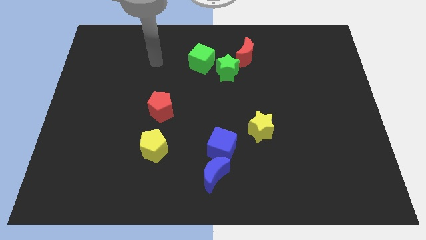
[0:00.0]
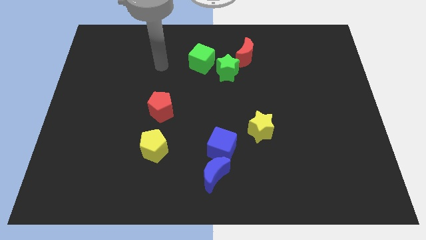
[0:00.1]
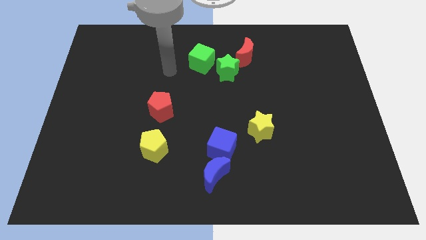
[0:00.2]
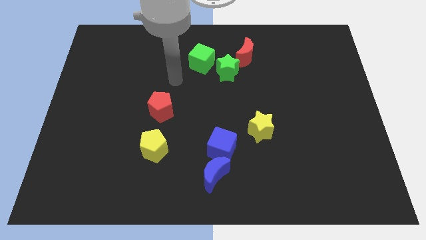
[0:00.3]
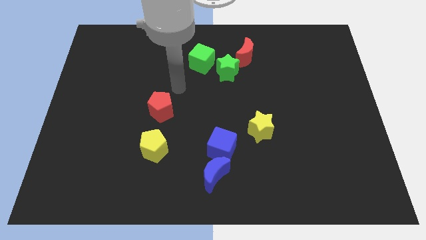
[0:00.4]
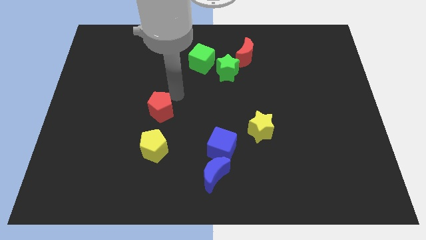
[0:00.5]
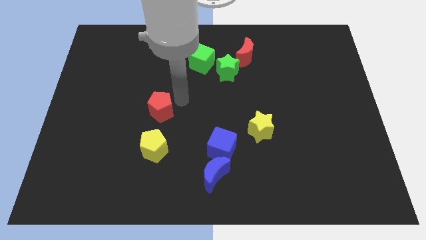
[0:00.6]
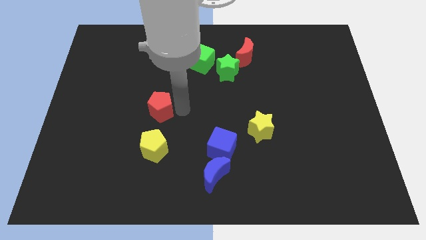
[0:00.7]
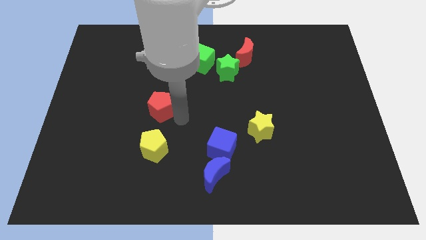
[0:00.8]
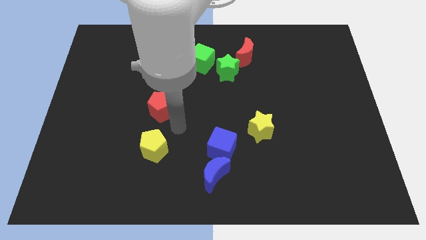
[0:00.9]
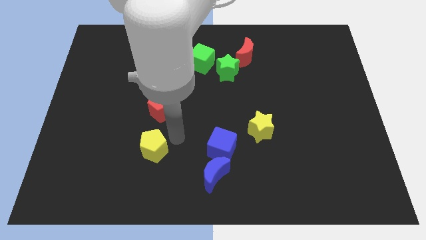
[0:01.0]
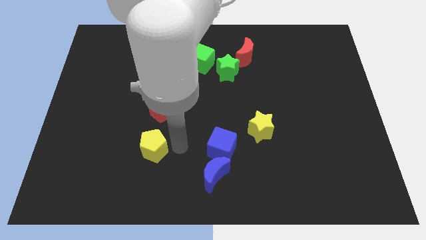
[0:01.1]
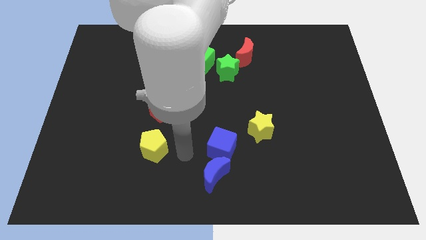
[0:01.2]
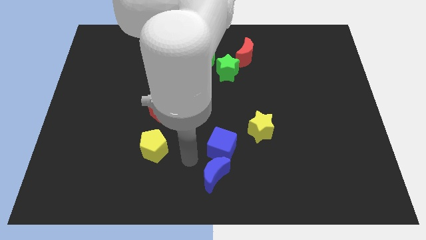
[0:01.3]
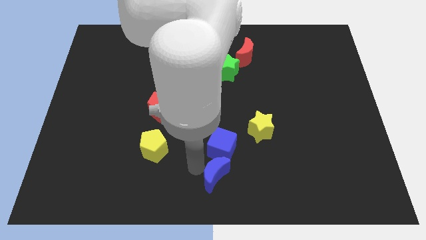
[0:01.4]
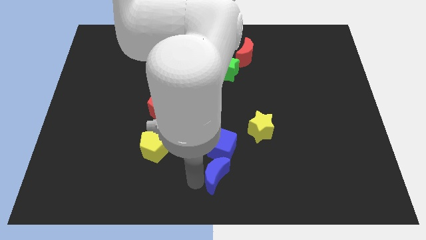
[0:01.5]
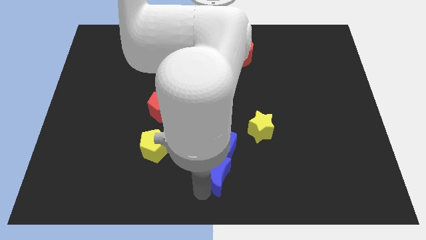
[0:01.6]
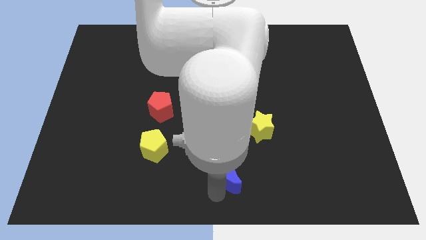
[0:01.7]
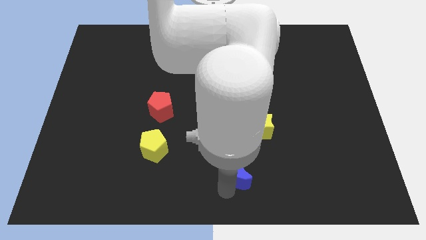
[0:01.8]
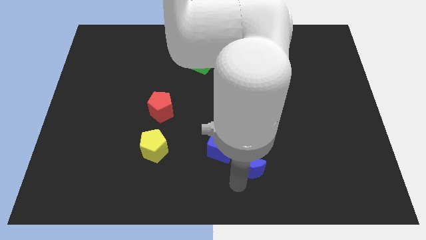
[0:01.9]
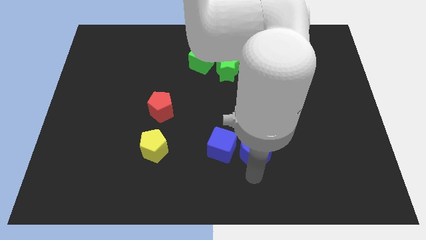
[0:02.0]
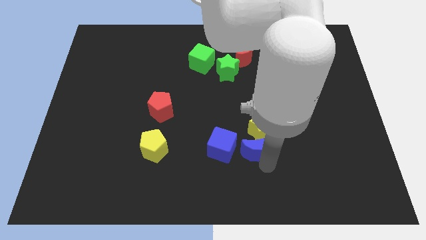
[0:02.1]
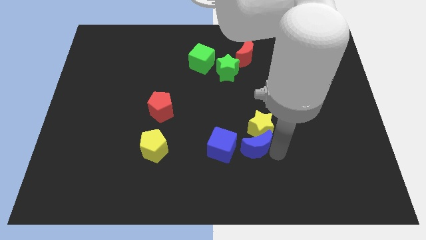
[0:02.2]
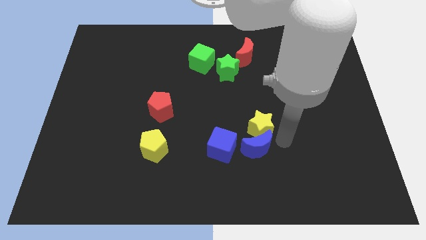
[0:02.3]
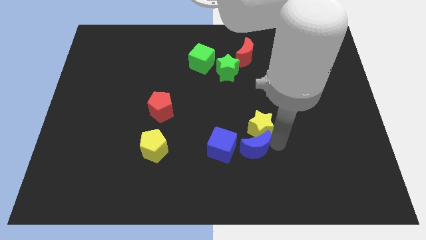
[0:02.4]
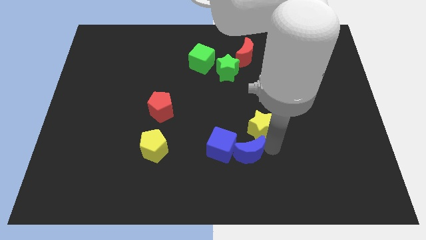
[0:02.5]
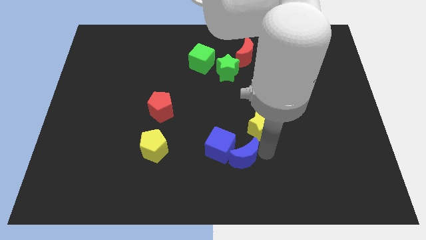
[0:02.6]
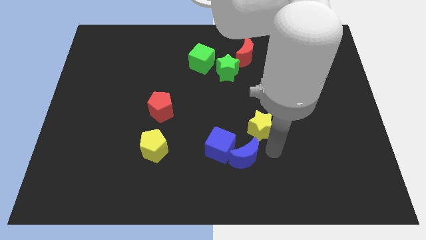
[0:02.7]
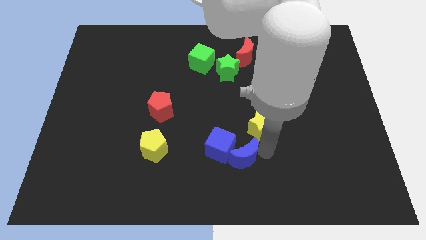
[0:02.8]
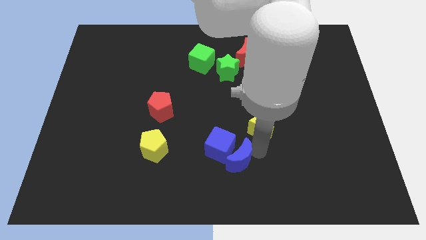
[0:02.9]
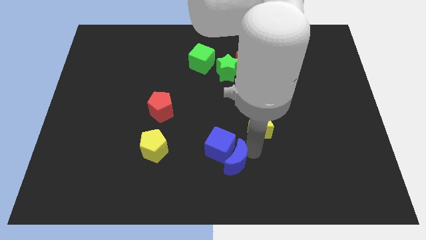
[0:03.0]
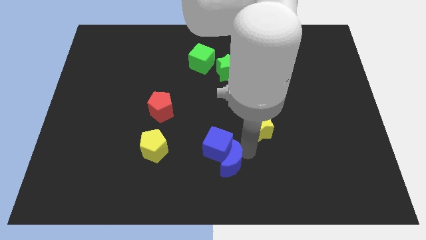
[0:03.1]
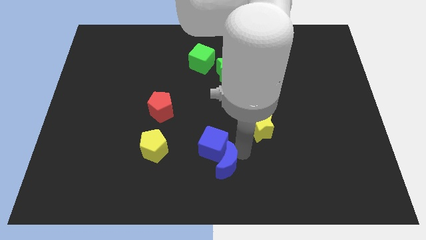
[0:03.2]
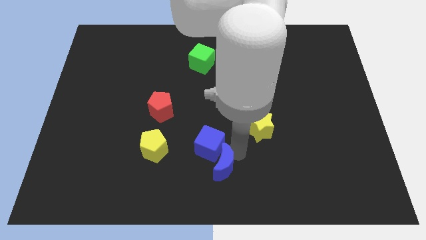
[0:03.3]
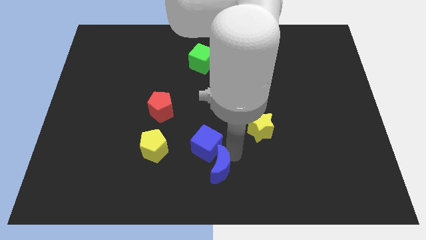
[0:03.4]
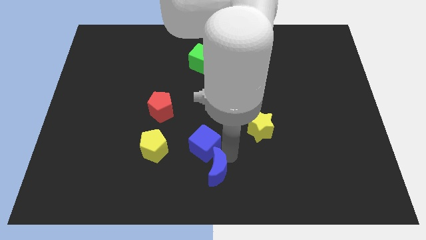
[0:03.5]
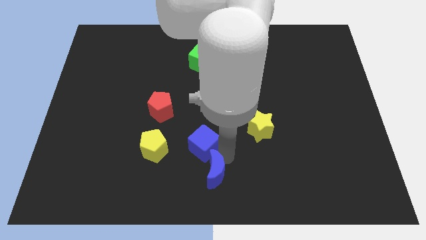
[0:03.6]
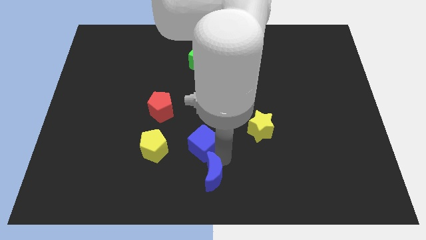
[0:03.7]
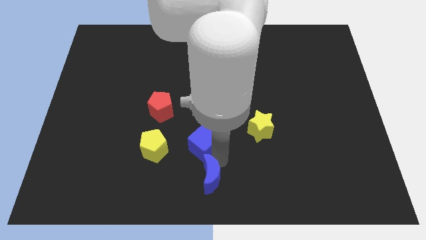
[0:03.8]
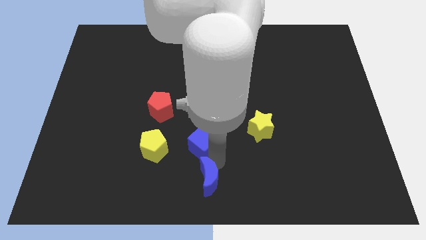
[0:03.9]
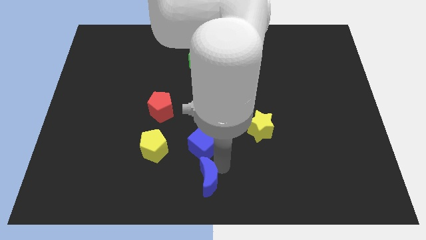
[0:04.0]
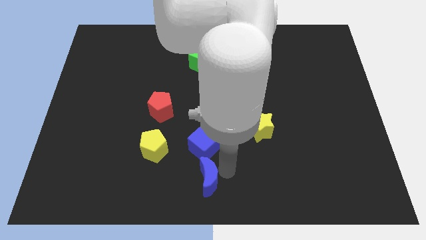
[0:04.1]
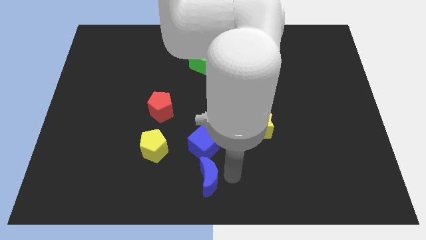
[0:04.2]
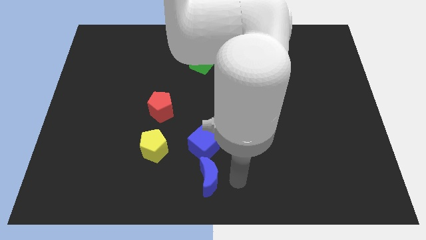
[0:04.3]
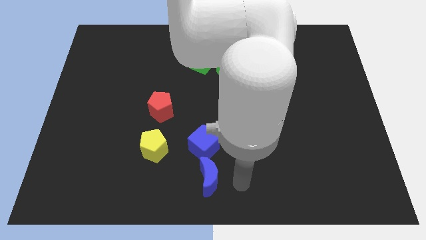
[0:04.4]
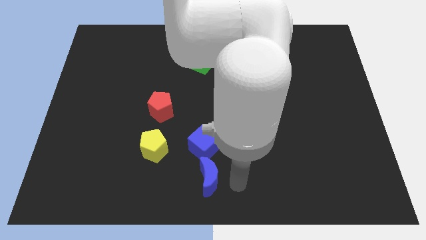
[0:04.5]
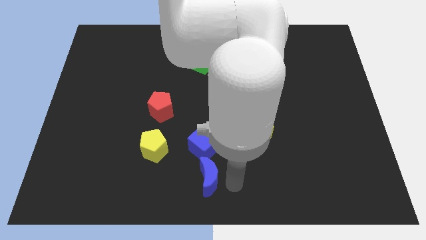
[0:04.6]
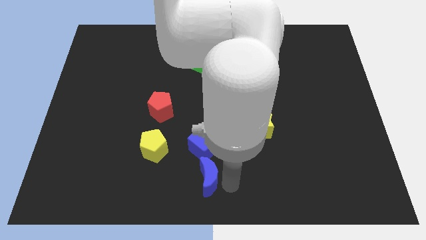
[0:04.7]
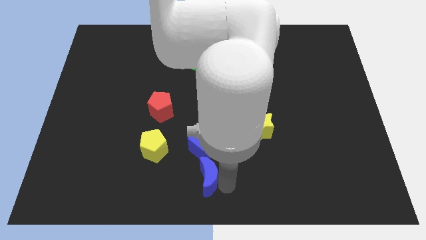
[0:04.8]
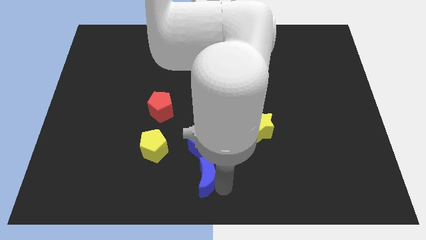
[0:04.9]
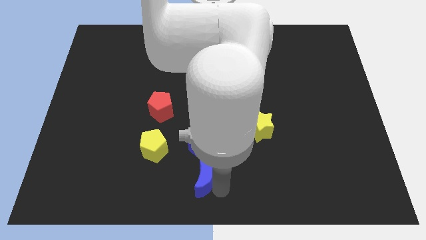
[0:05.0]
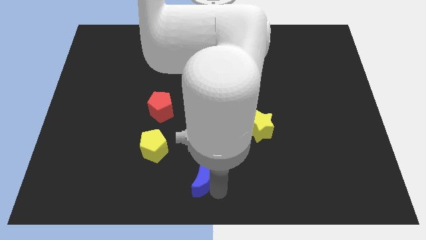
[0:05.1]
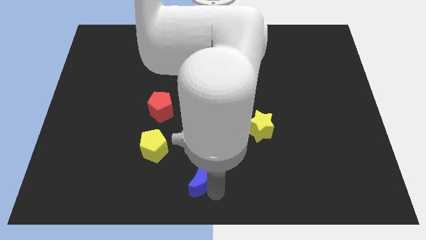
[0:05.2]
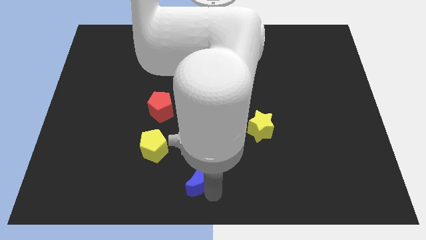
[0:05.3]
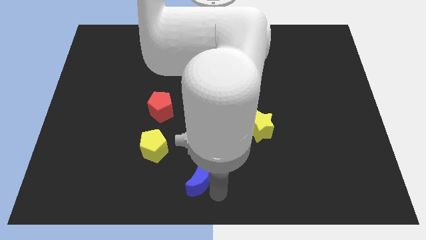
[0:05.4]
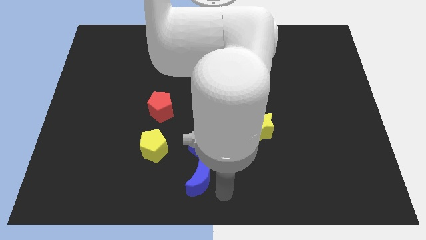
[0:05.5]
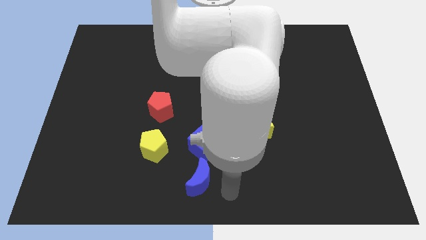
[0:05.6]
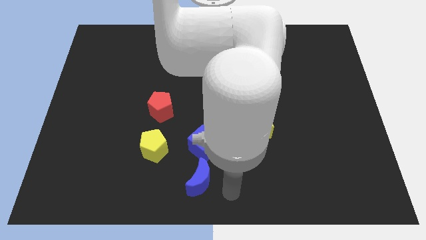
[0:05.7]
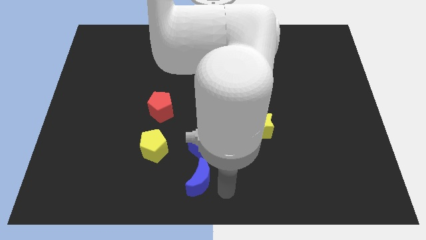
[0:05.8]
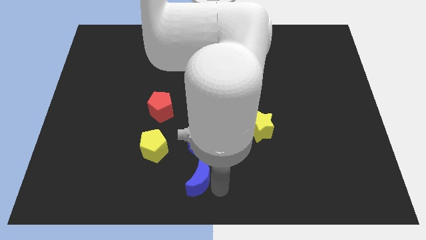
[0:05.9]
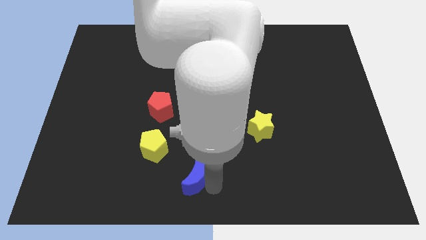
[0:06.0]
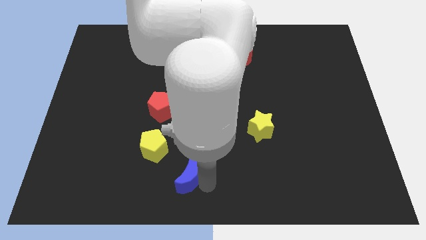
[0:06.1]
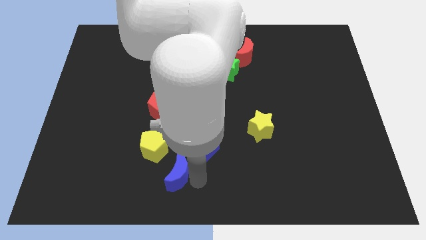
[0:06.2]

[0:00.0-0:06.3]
move the blue moon a little to the left

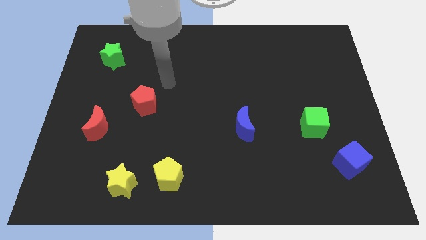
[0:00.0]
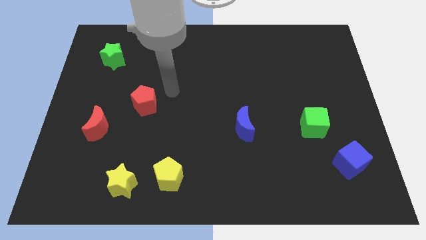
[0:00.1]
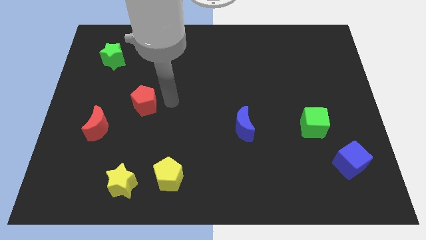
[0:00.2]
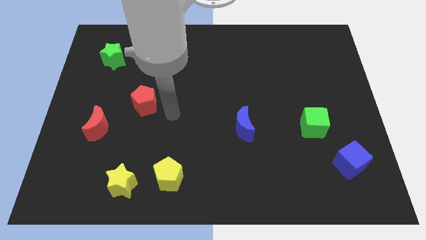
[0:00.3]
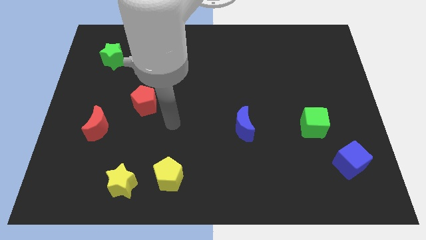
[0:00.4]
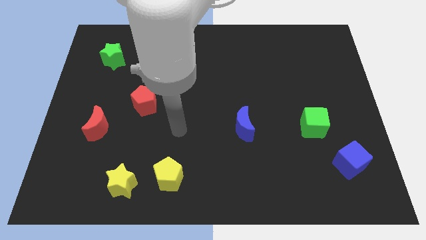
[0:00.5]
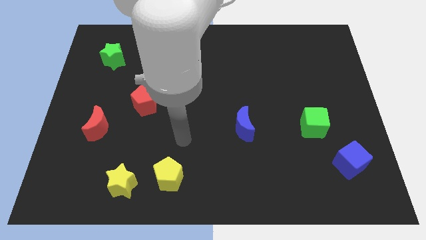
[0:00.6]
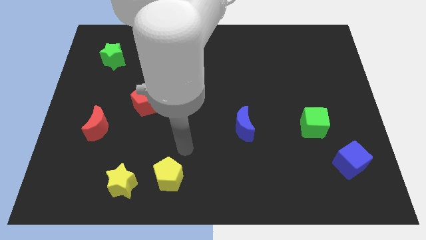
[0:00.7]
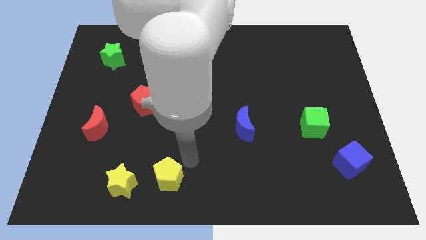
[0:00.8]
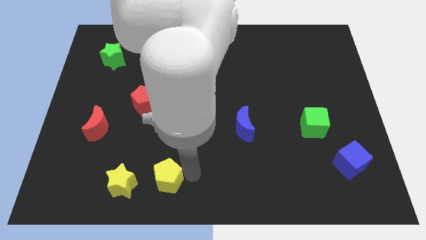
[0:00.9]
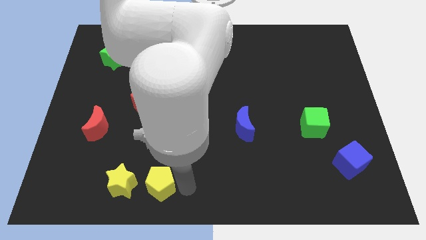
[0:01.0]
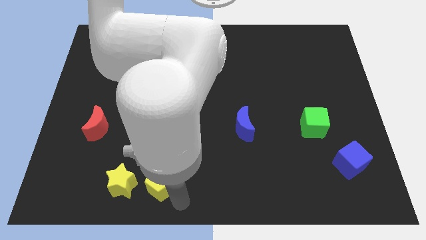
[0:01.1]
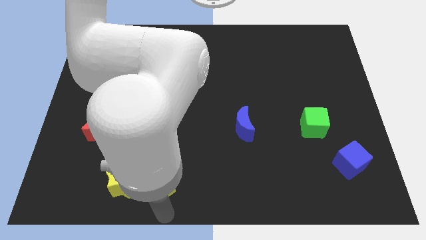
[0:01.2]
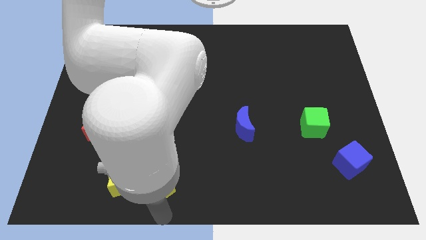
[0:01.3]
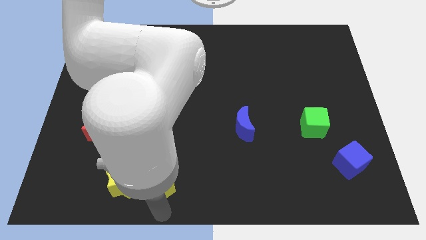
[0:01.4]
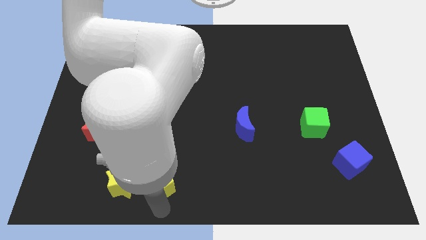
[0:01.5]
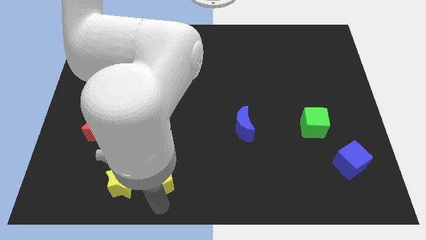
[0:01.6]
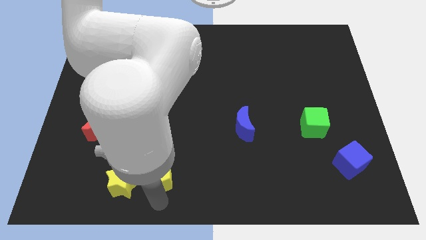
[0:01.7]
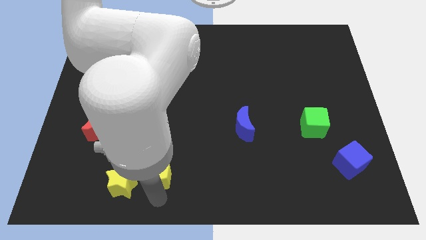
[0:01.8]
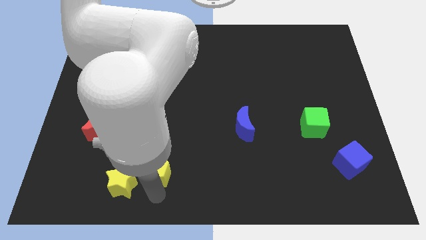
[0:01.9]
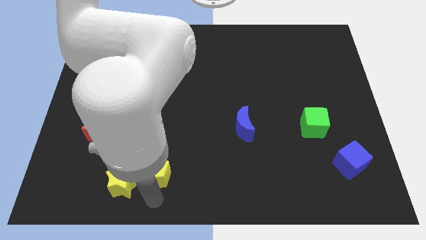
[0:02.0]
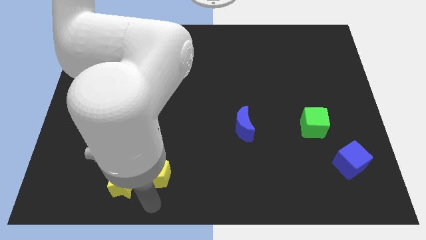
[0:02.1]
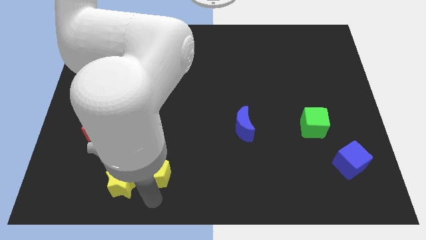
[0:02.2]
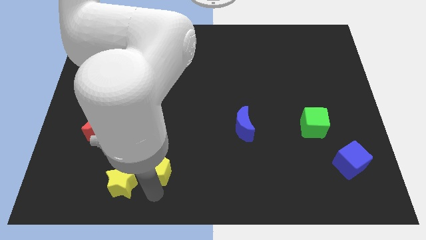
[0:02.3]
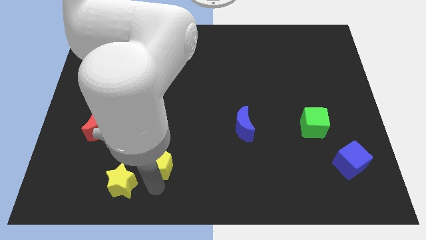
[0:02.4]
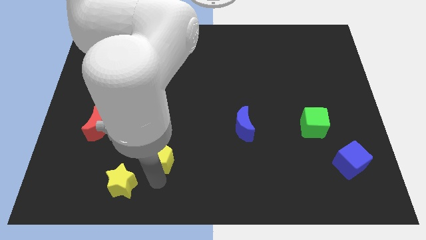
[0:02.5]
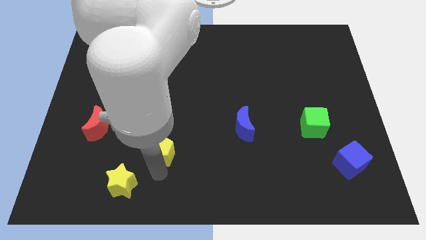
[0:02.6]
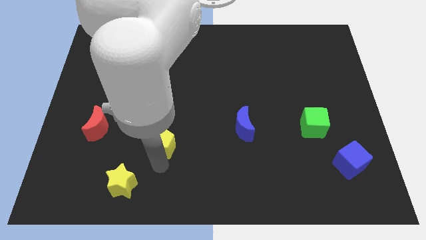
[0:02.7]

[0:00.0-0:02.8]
slightly move the yellow pentagon upwards
